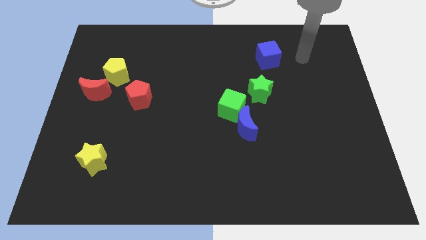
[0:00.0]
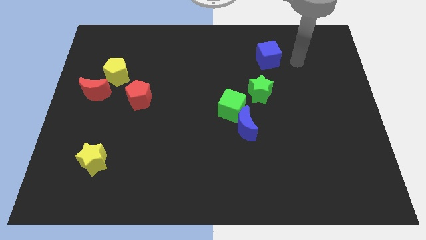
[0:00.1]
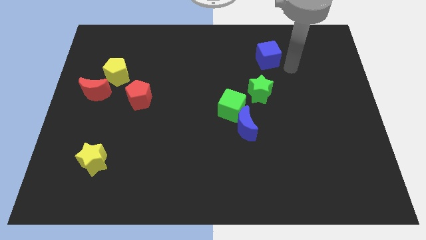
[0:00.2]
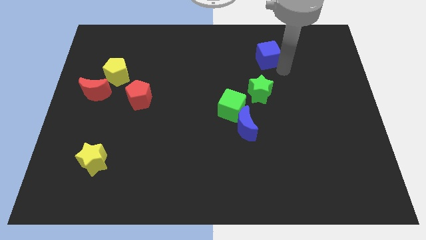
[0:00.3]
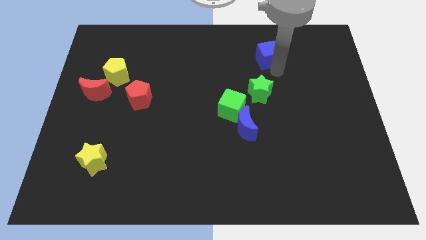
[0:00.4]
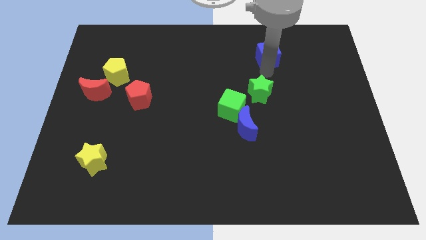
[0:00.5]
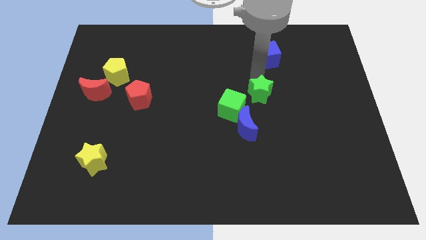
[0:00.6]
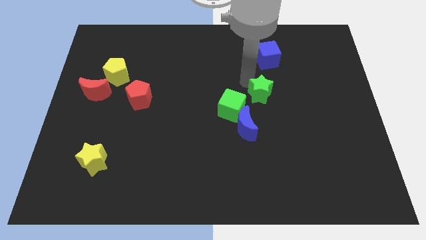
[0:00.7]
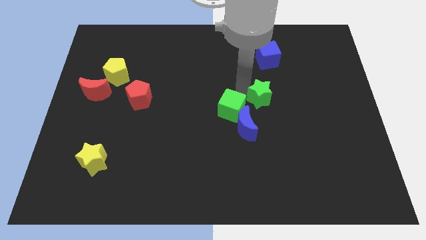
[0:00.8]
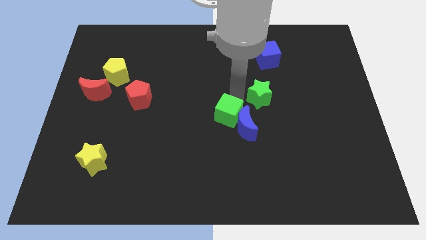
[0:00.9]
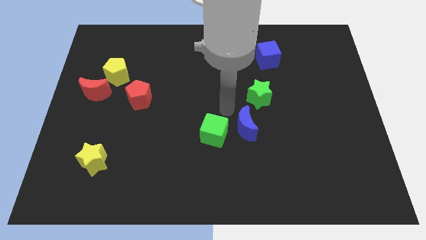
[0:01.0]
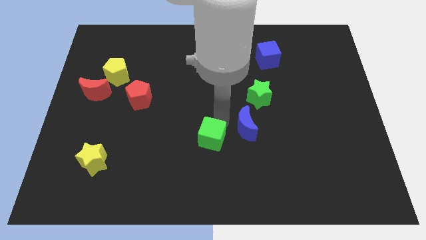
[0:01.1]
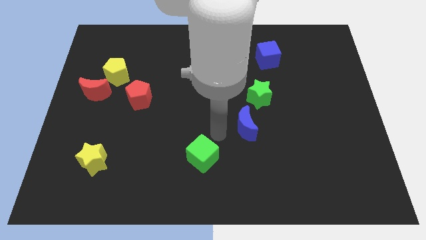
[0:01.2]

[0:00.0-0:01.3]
separate the blue moon from the green cube

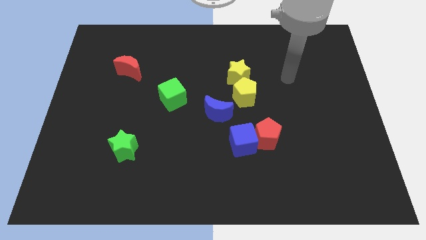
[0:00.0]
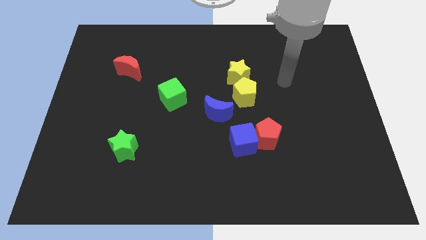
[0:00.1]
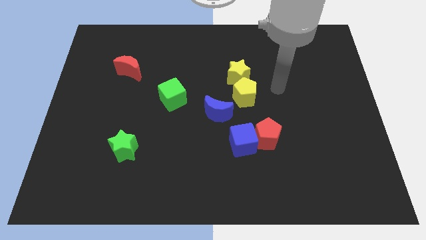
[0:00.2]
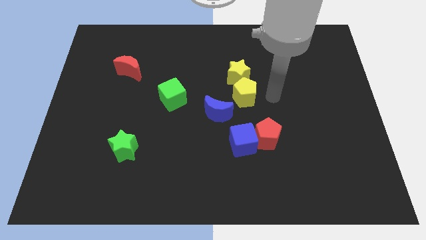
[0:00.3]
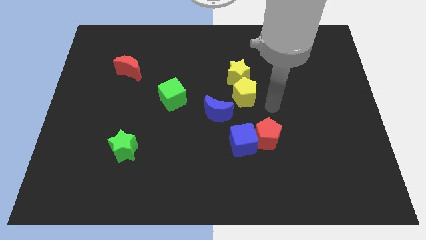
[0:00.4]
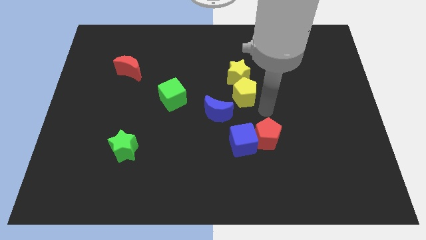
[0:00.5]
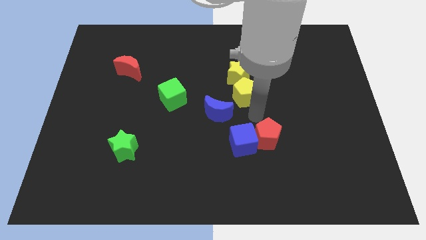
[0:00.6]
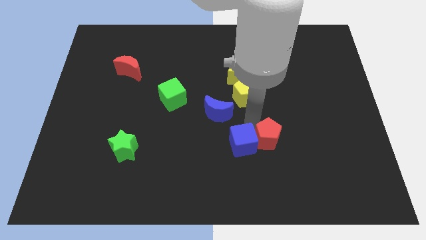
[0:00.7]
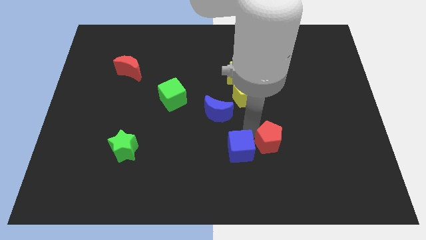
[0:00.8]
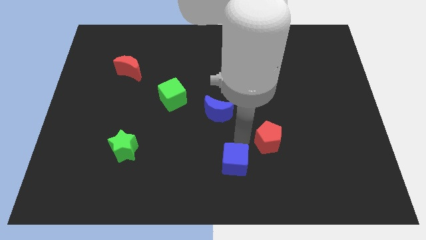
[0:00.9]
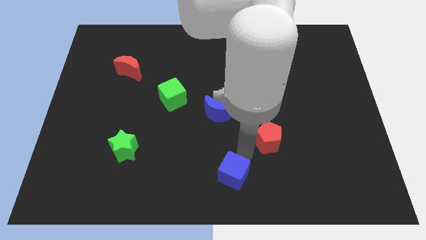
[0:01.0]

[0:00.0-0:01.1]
separate the red pentagon from the blue cube

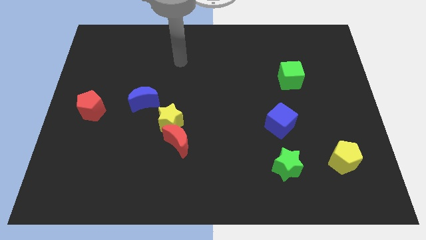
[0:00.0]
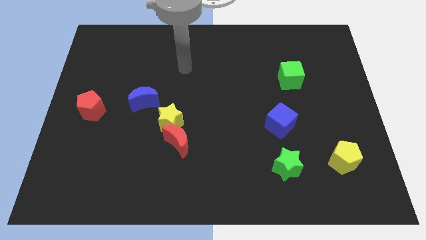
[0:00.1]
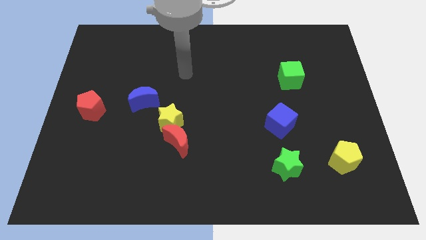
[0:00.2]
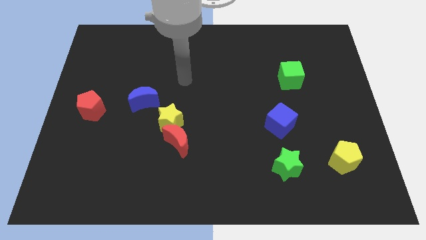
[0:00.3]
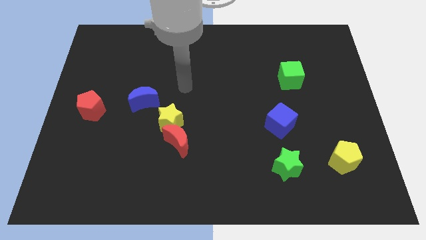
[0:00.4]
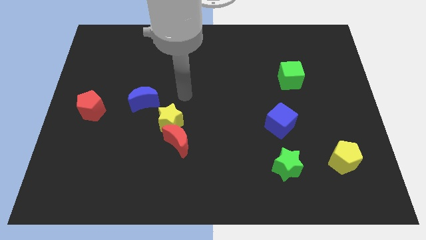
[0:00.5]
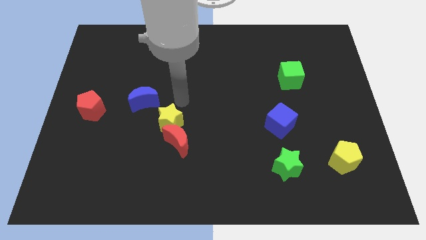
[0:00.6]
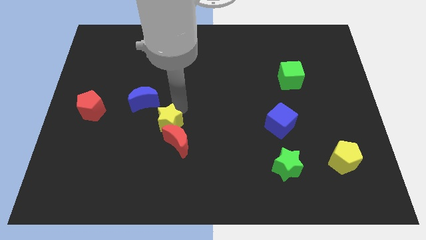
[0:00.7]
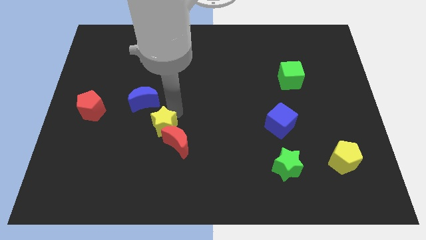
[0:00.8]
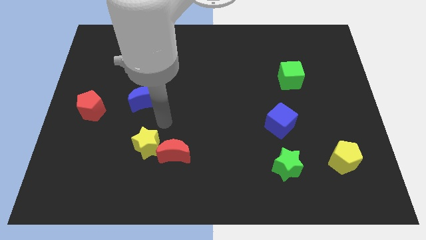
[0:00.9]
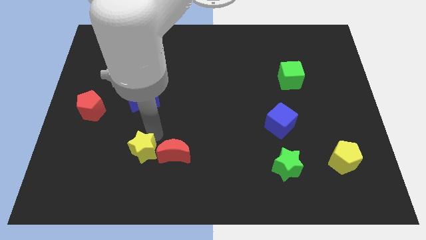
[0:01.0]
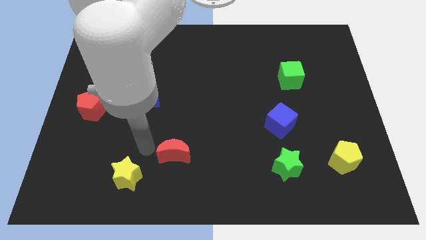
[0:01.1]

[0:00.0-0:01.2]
move the red moon away from the yellow star

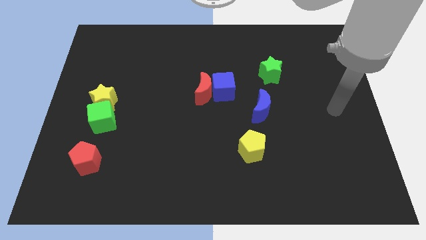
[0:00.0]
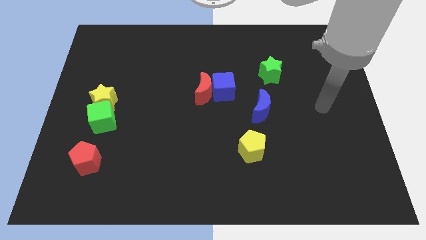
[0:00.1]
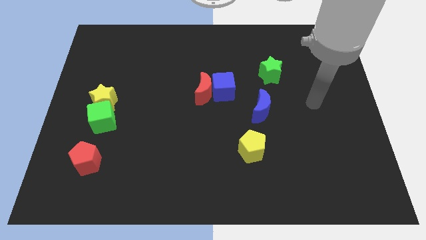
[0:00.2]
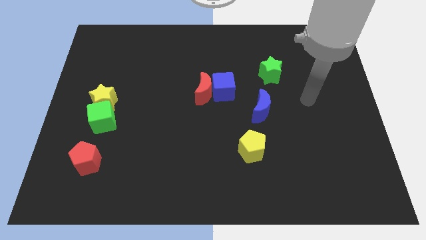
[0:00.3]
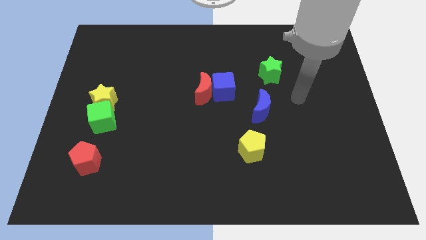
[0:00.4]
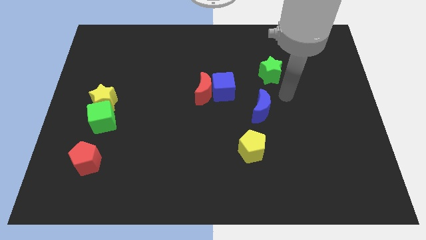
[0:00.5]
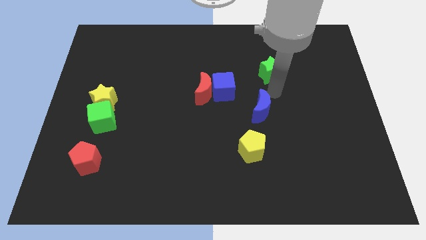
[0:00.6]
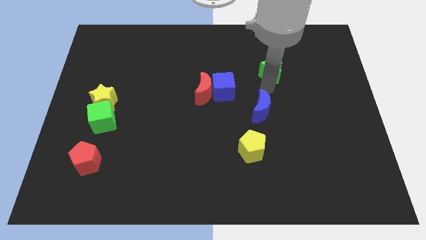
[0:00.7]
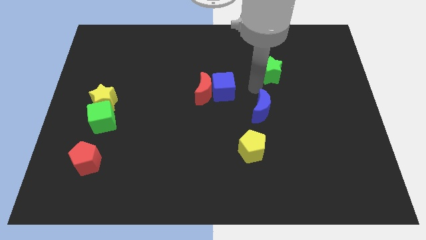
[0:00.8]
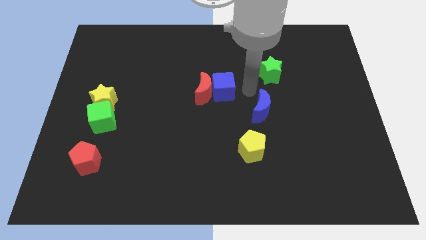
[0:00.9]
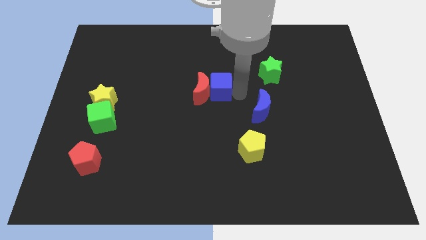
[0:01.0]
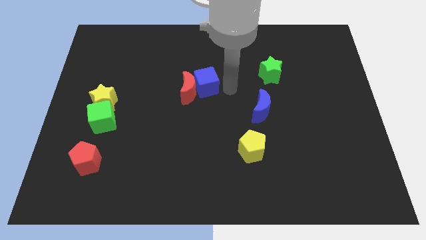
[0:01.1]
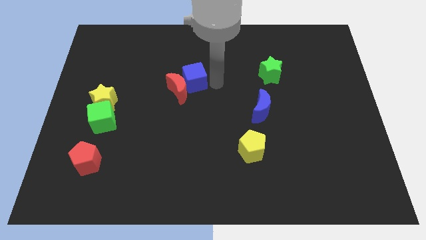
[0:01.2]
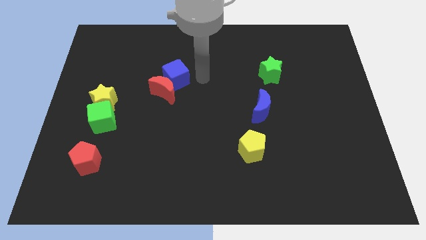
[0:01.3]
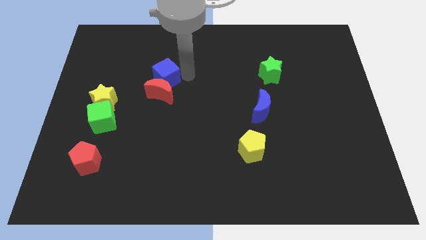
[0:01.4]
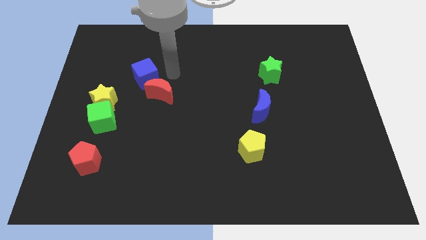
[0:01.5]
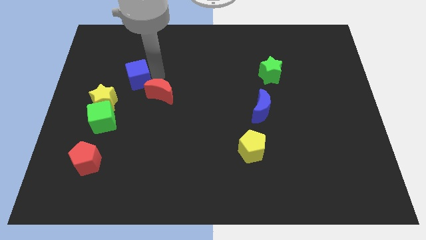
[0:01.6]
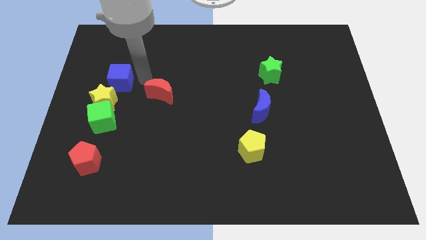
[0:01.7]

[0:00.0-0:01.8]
separate the red moon from the blue cube

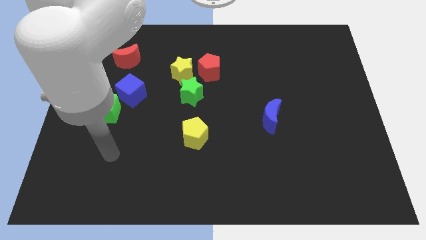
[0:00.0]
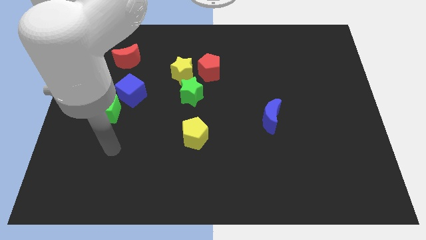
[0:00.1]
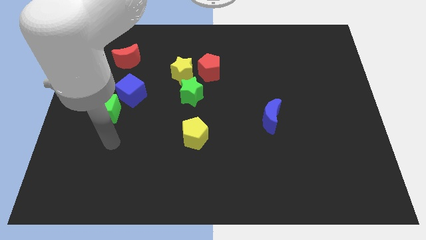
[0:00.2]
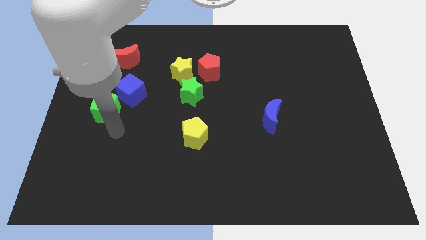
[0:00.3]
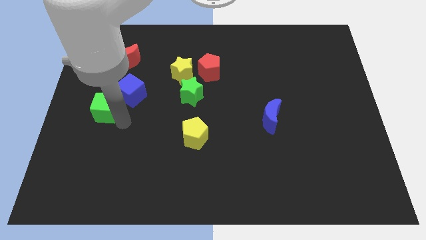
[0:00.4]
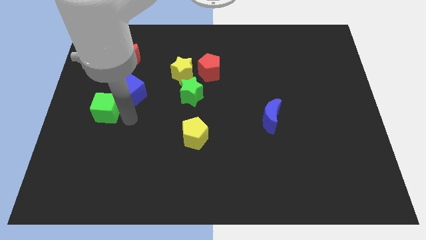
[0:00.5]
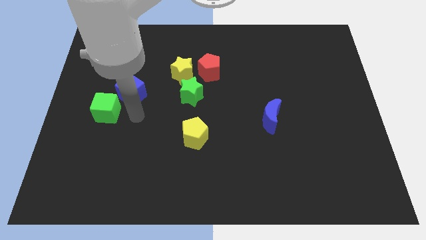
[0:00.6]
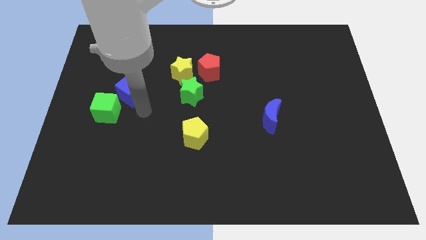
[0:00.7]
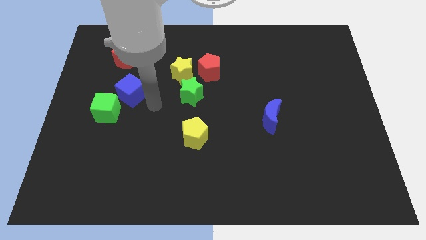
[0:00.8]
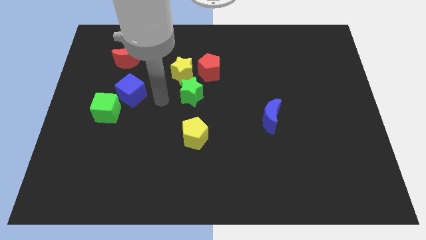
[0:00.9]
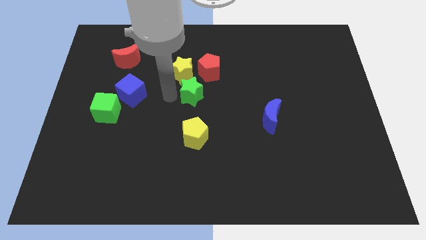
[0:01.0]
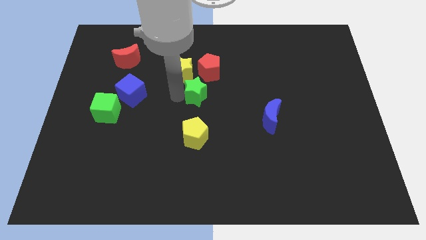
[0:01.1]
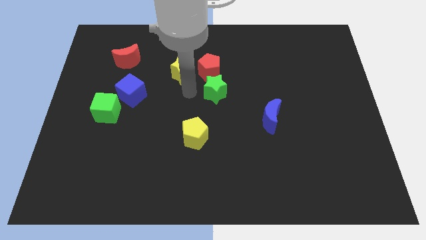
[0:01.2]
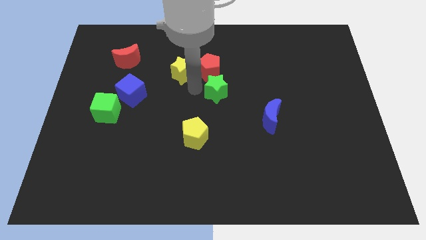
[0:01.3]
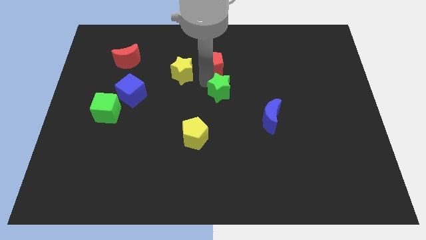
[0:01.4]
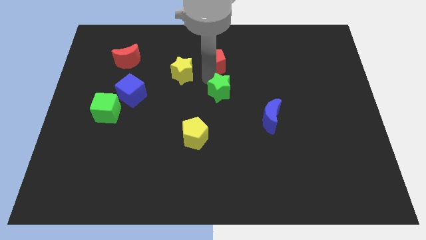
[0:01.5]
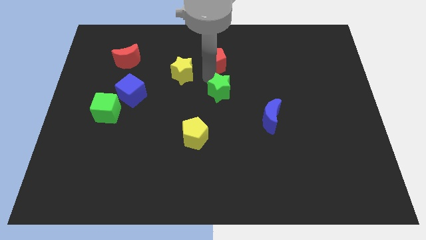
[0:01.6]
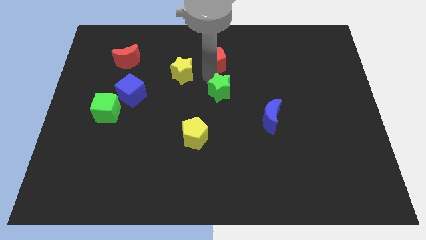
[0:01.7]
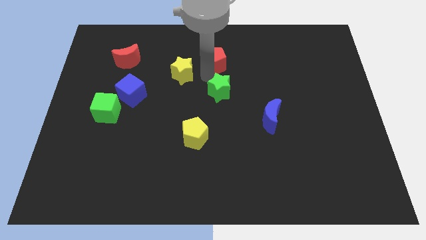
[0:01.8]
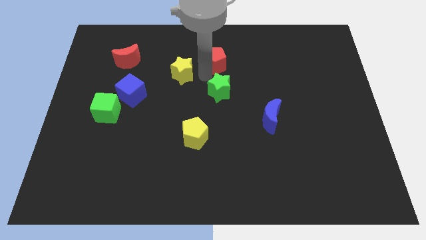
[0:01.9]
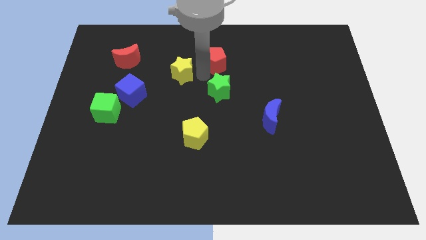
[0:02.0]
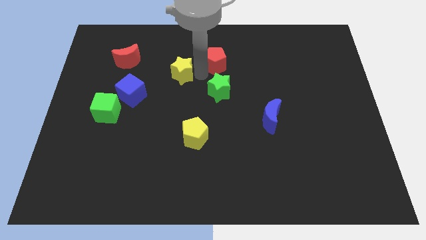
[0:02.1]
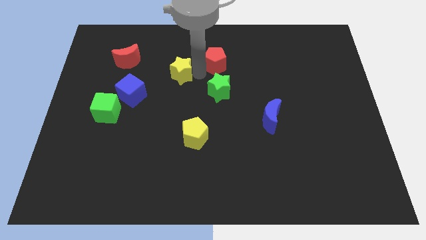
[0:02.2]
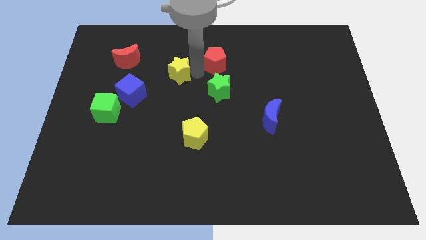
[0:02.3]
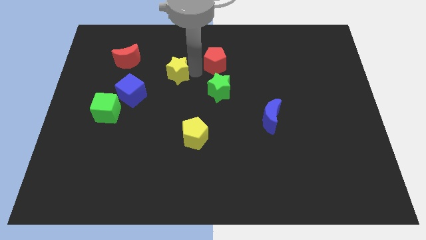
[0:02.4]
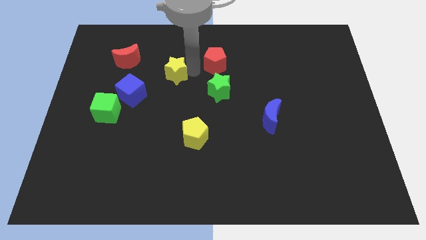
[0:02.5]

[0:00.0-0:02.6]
move the yellow star away from the red pentagon and green star

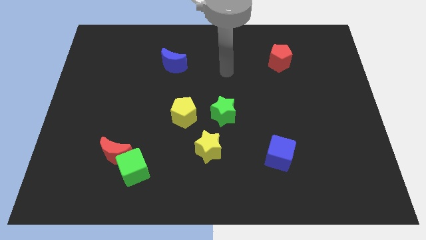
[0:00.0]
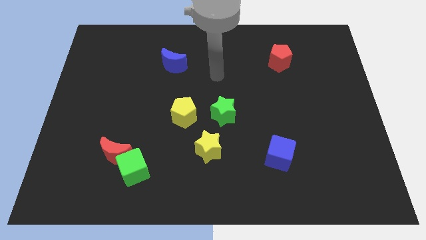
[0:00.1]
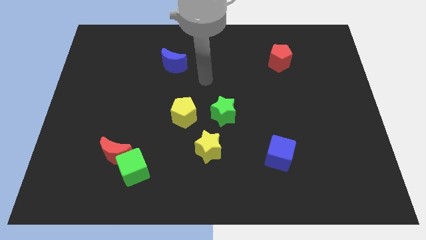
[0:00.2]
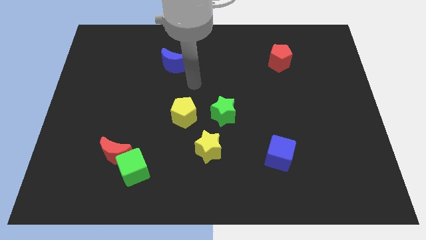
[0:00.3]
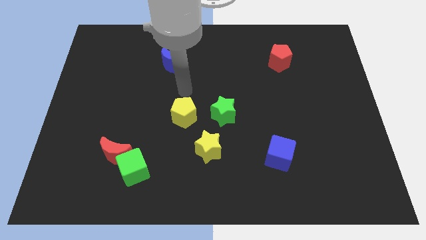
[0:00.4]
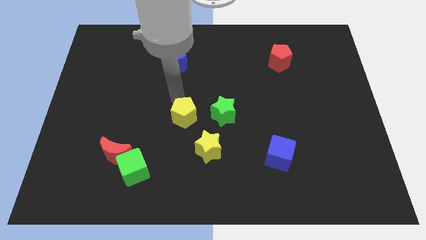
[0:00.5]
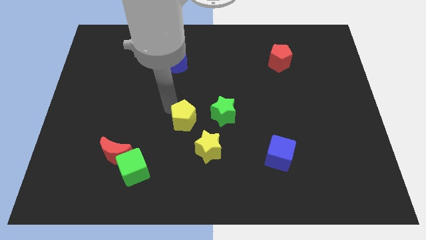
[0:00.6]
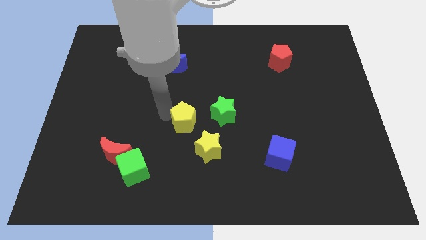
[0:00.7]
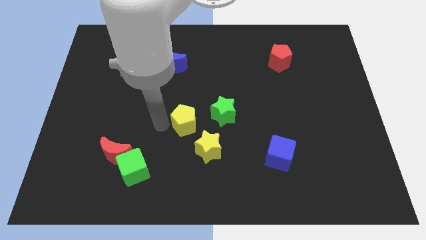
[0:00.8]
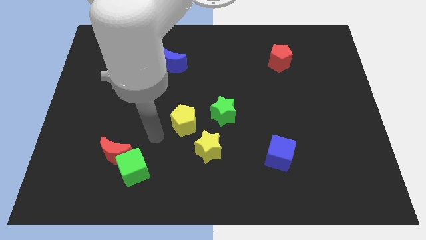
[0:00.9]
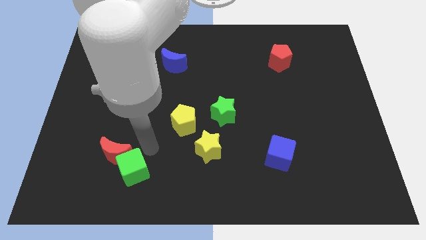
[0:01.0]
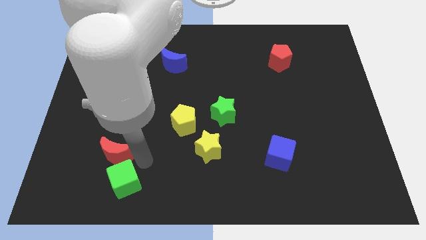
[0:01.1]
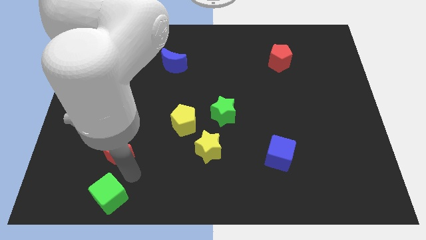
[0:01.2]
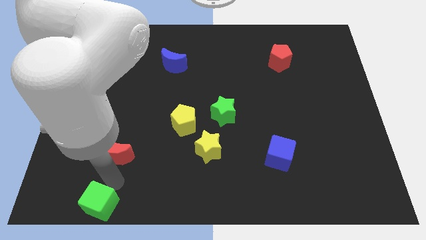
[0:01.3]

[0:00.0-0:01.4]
separate the red moon from the green cube
